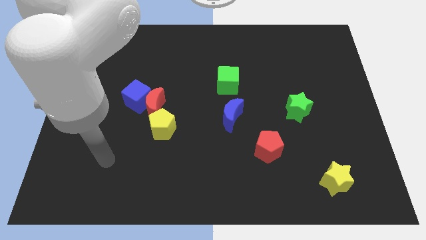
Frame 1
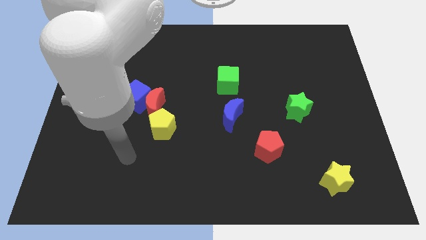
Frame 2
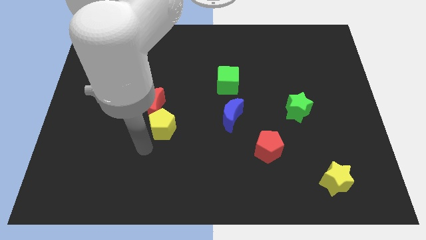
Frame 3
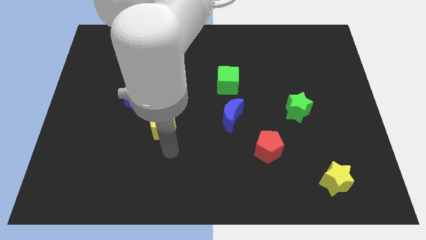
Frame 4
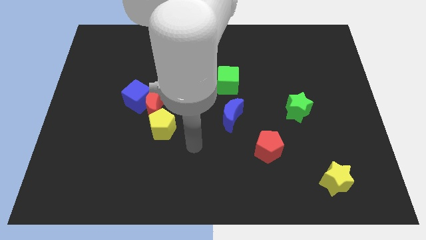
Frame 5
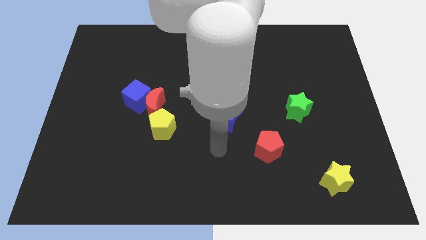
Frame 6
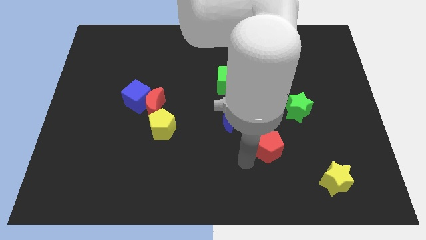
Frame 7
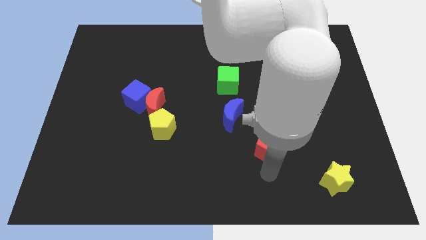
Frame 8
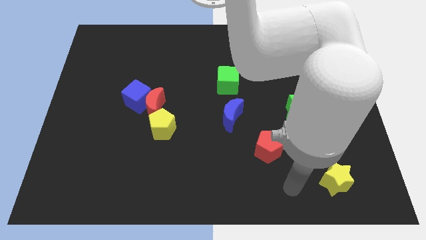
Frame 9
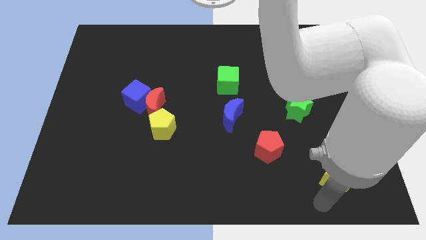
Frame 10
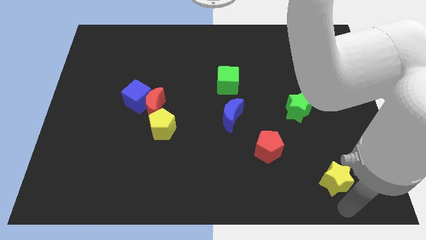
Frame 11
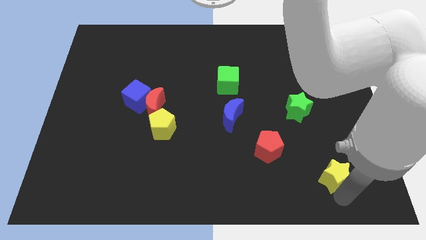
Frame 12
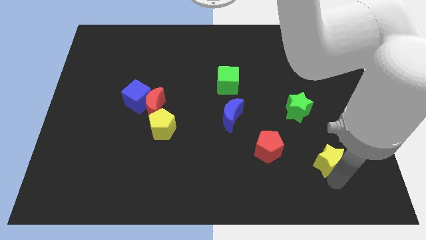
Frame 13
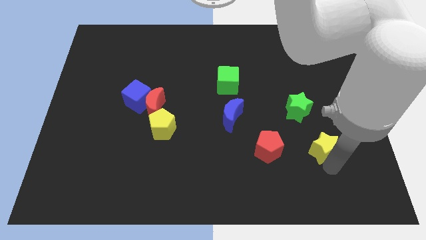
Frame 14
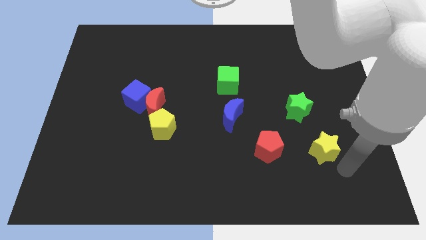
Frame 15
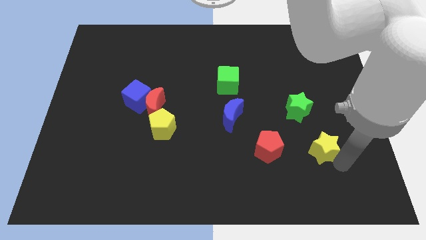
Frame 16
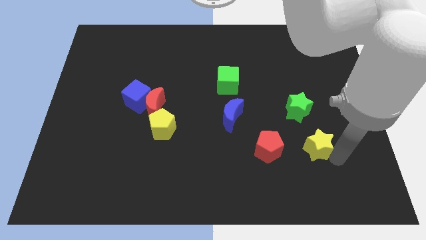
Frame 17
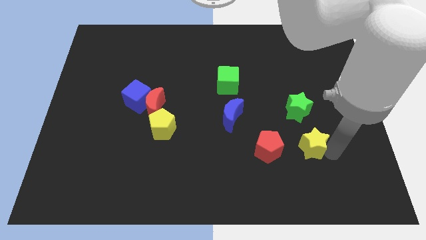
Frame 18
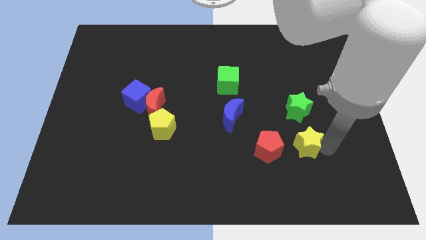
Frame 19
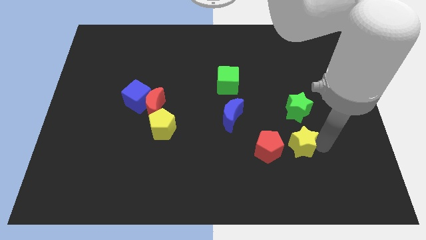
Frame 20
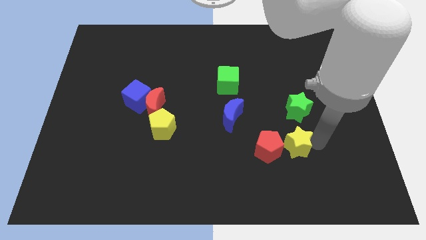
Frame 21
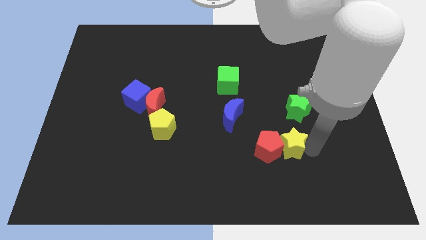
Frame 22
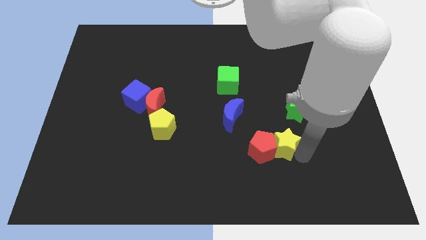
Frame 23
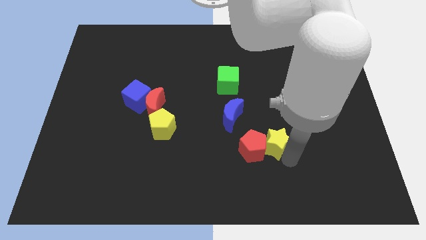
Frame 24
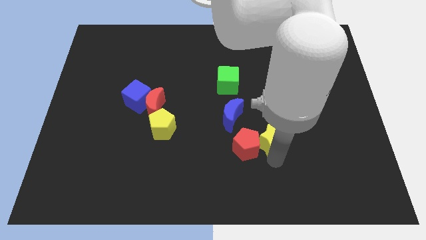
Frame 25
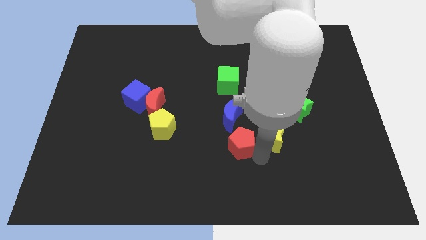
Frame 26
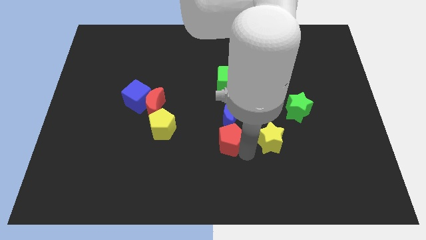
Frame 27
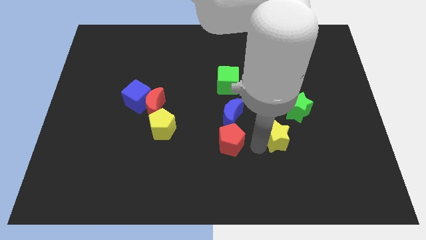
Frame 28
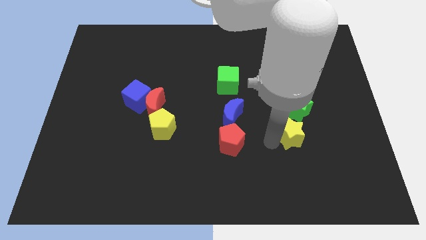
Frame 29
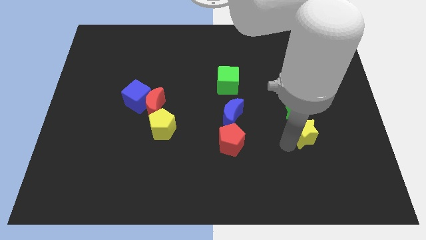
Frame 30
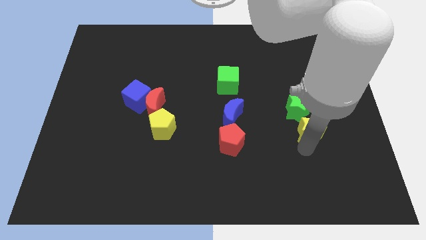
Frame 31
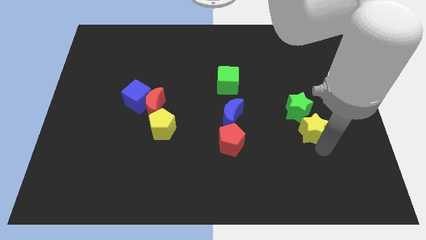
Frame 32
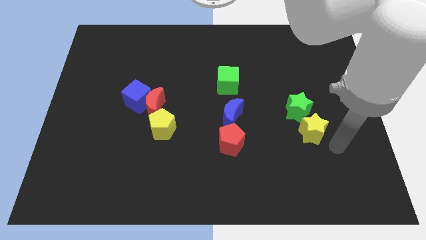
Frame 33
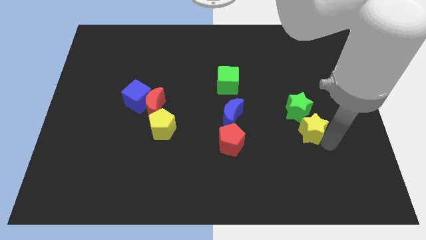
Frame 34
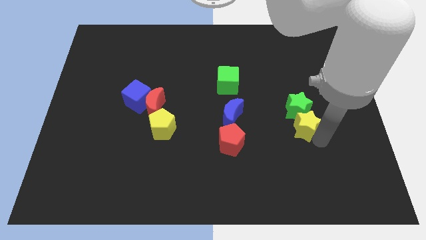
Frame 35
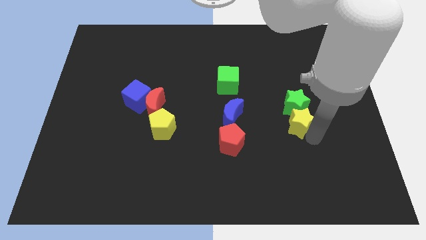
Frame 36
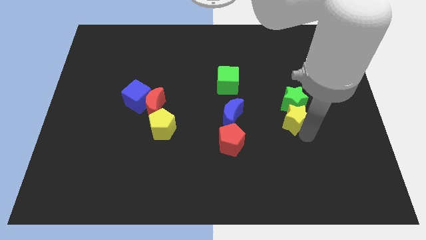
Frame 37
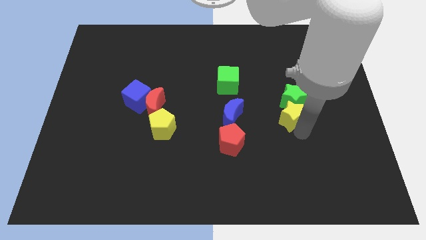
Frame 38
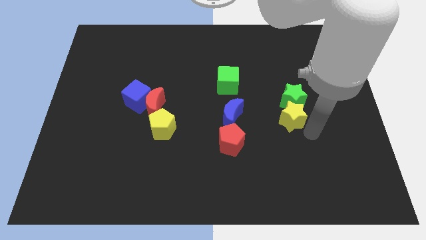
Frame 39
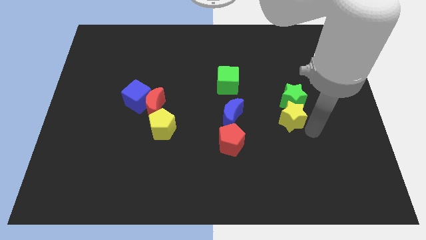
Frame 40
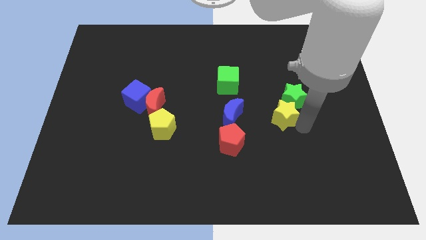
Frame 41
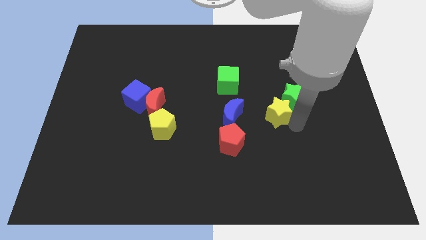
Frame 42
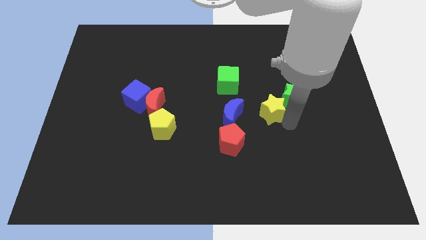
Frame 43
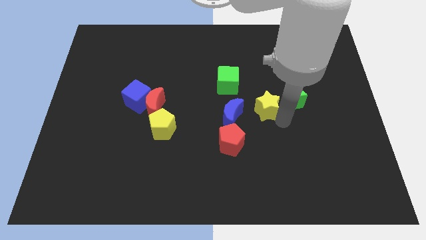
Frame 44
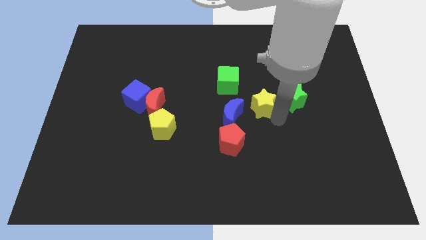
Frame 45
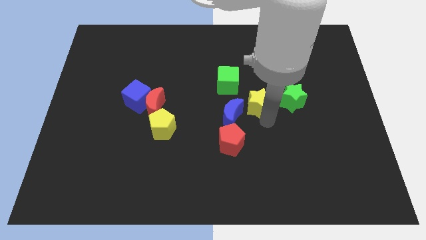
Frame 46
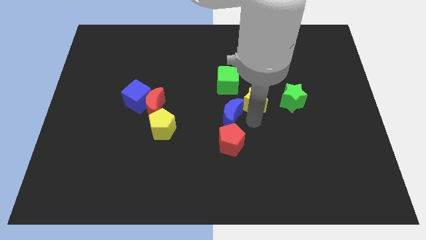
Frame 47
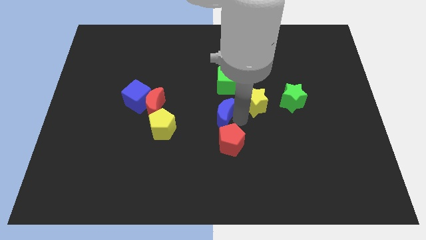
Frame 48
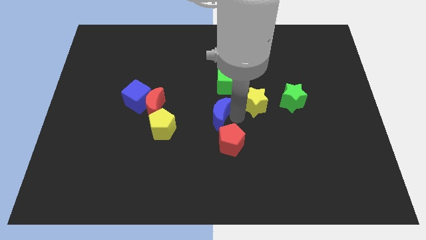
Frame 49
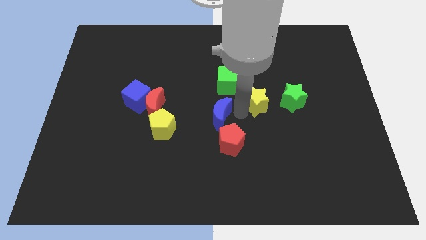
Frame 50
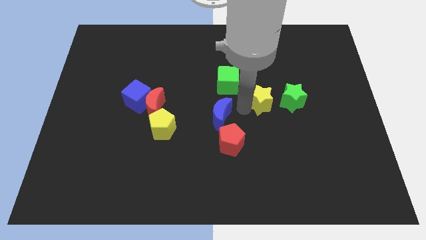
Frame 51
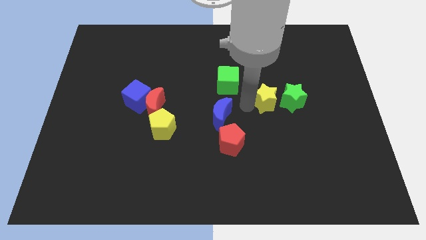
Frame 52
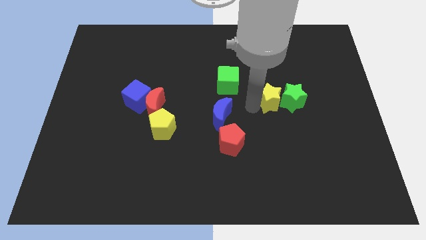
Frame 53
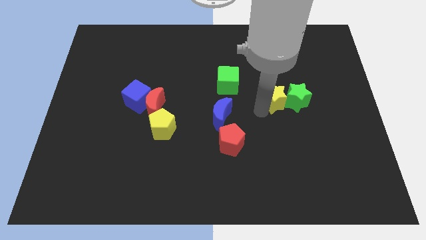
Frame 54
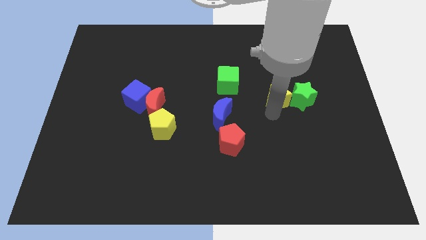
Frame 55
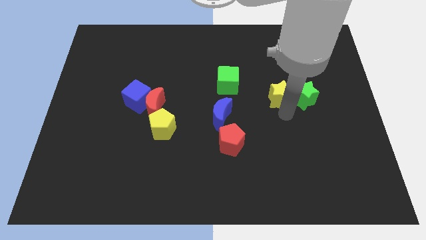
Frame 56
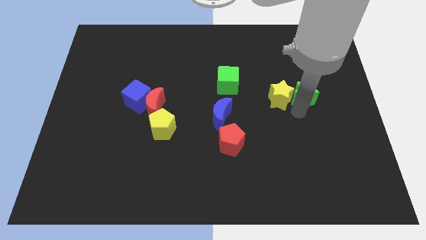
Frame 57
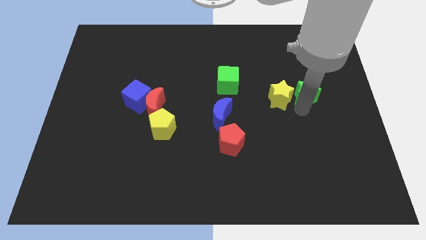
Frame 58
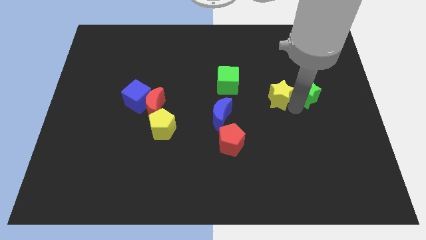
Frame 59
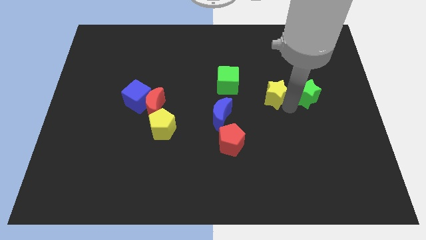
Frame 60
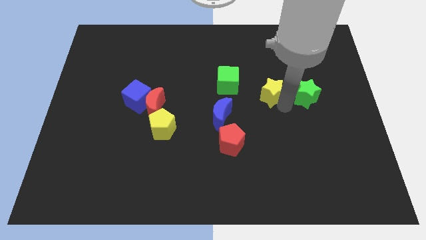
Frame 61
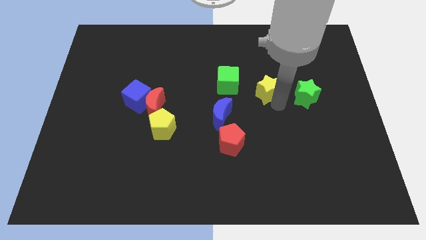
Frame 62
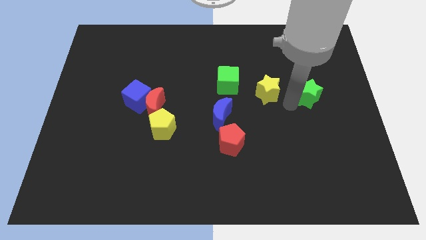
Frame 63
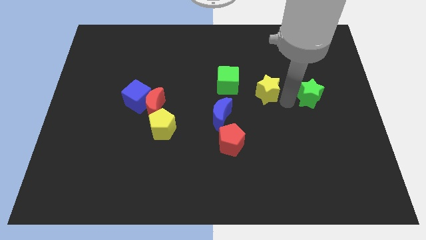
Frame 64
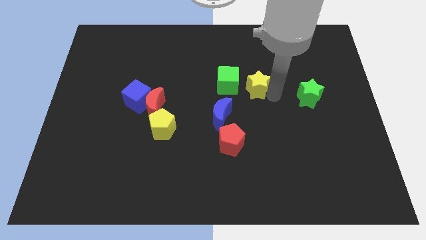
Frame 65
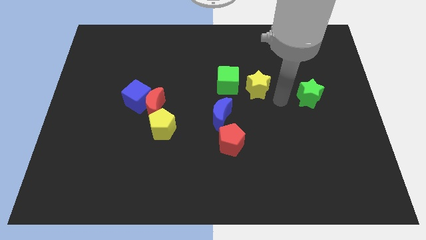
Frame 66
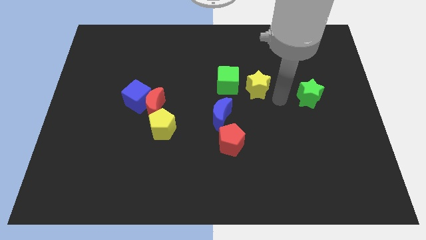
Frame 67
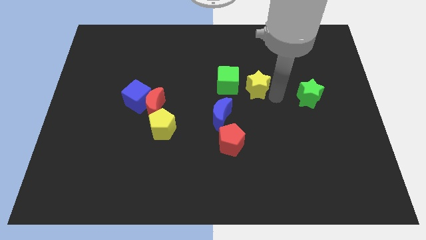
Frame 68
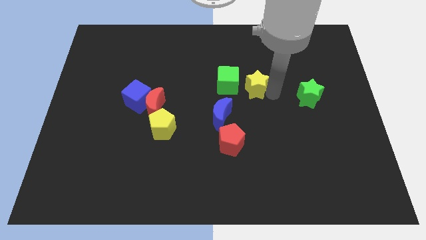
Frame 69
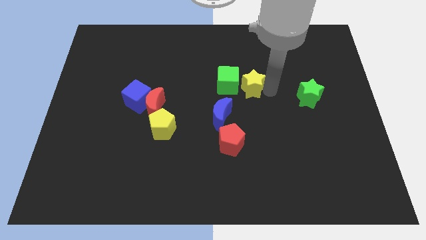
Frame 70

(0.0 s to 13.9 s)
slide the yellow star to the green cube
